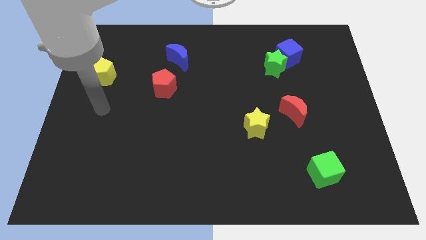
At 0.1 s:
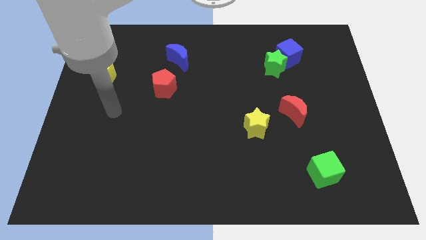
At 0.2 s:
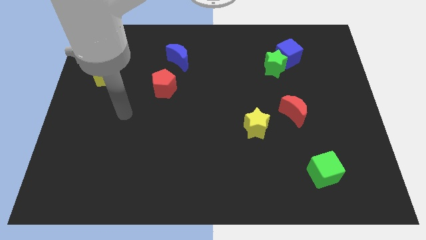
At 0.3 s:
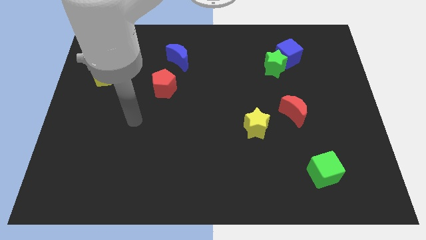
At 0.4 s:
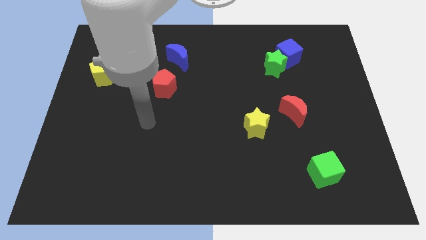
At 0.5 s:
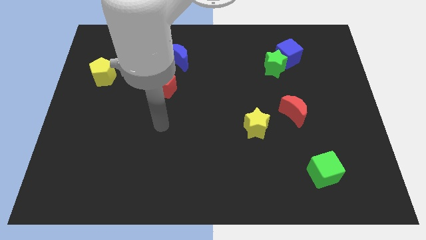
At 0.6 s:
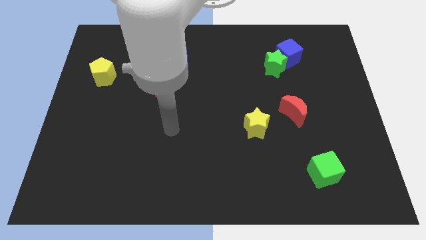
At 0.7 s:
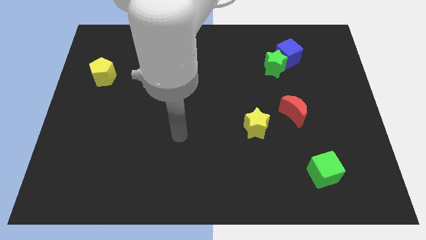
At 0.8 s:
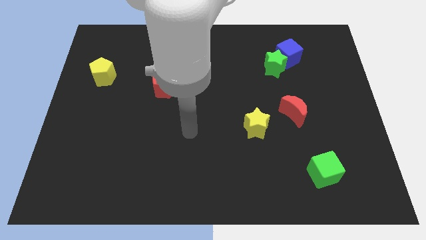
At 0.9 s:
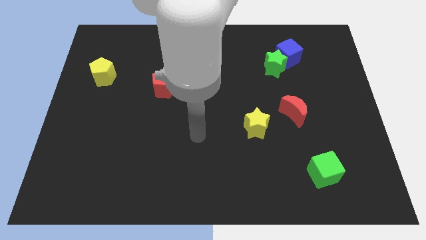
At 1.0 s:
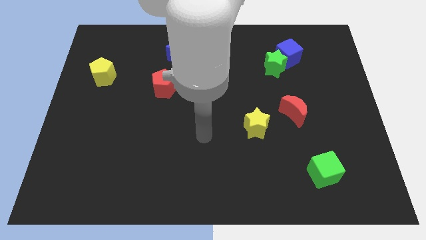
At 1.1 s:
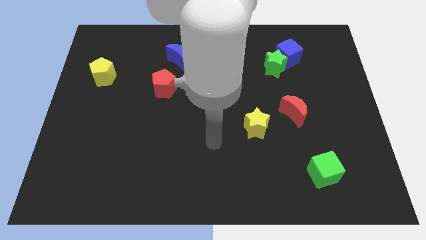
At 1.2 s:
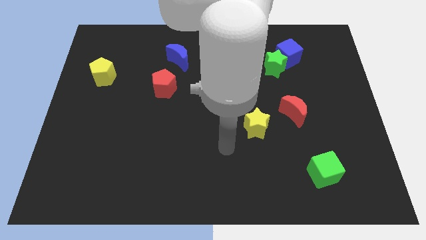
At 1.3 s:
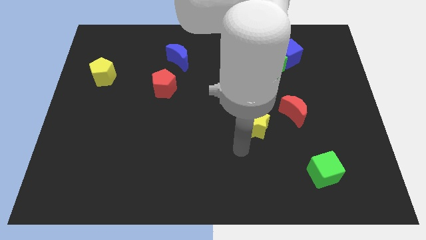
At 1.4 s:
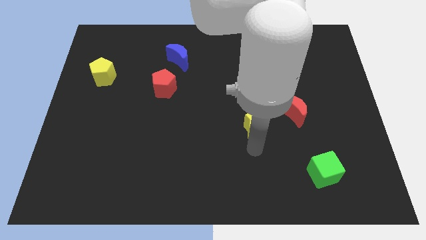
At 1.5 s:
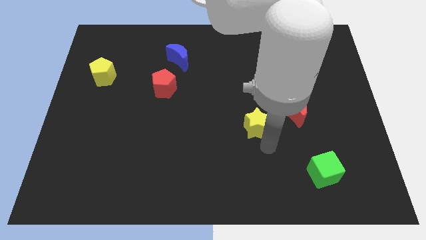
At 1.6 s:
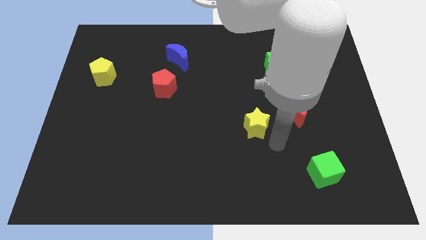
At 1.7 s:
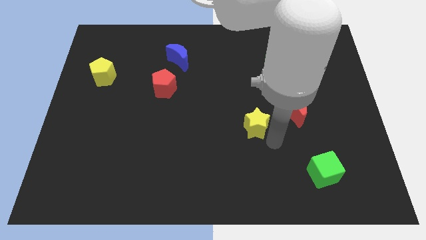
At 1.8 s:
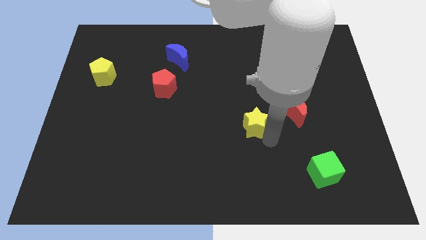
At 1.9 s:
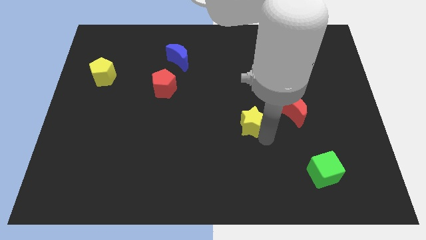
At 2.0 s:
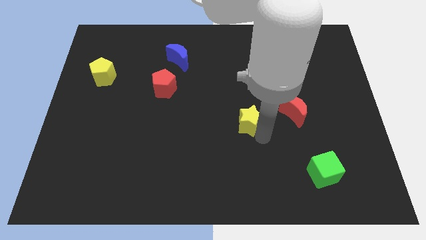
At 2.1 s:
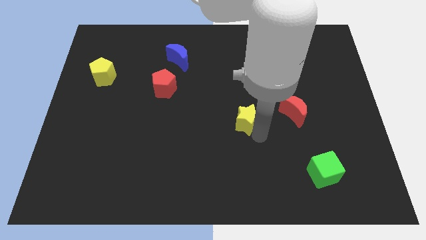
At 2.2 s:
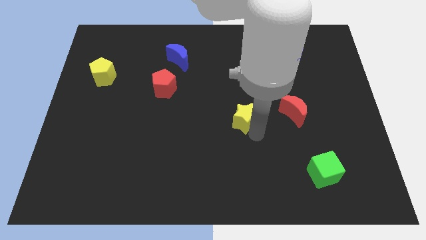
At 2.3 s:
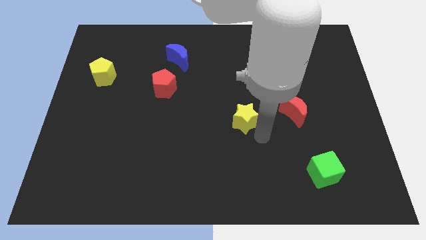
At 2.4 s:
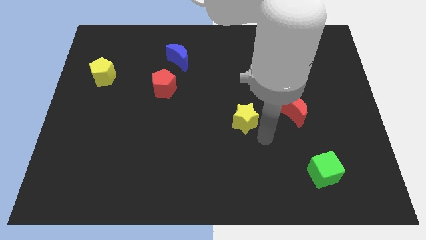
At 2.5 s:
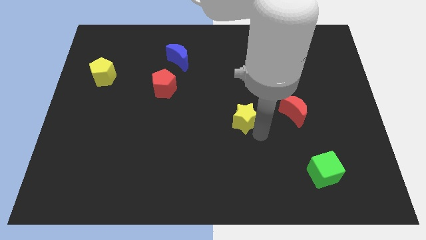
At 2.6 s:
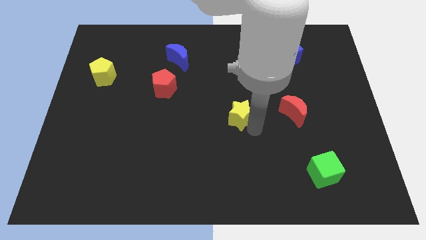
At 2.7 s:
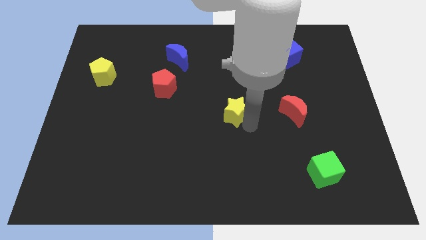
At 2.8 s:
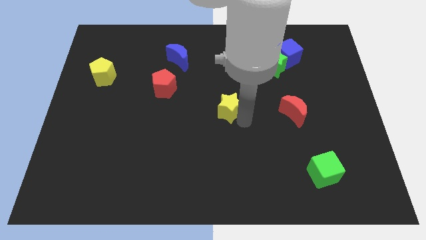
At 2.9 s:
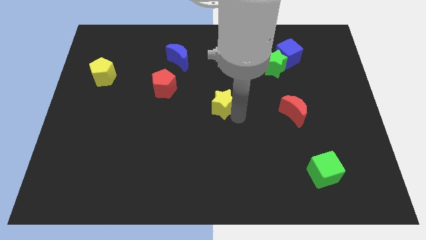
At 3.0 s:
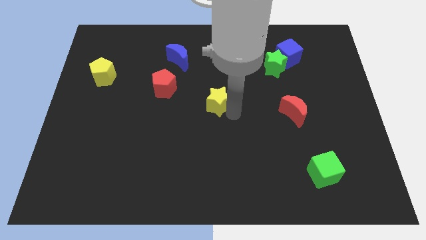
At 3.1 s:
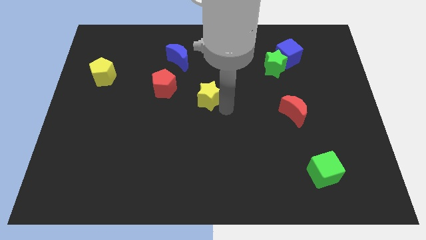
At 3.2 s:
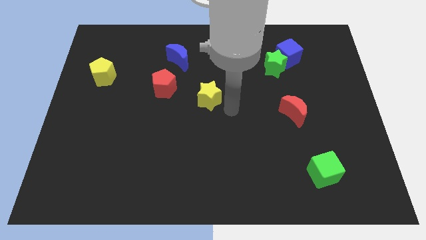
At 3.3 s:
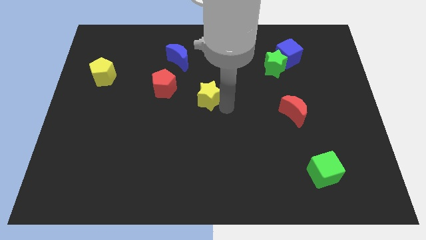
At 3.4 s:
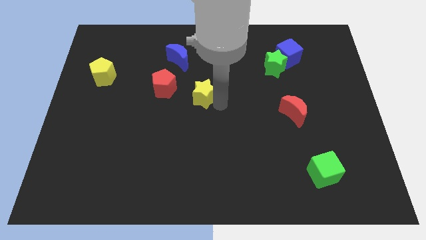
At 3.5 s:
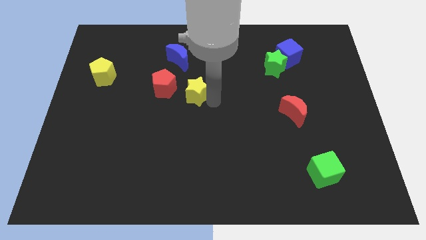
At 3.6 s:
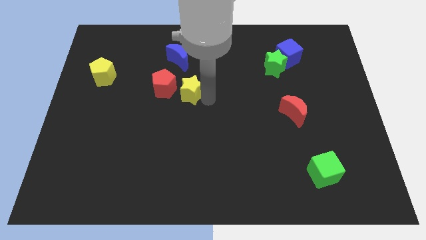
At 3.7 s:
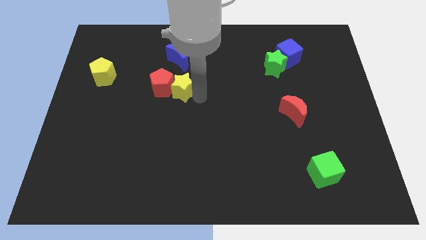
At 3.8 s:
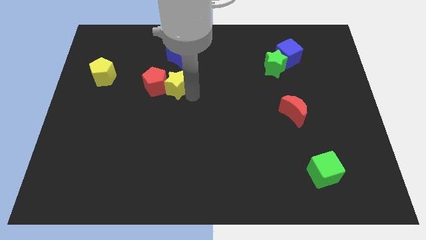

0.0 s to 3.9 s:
slide the yellow star up and to the left diagonally

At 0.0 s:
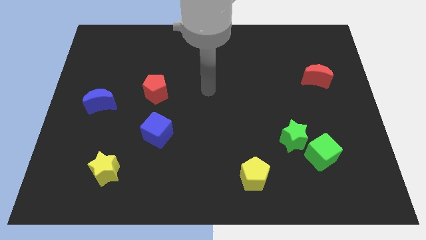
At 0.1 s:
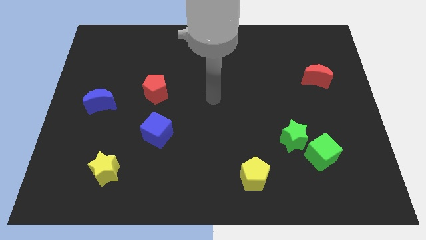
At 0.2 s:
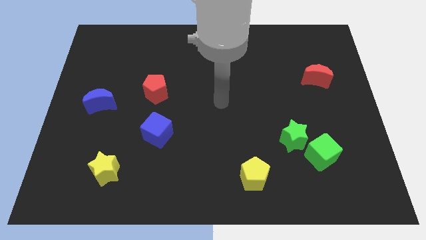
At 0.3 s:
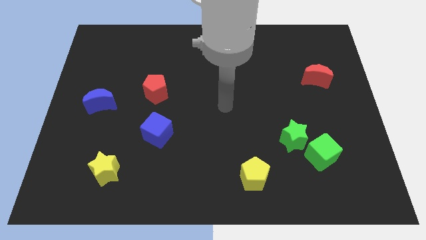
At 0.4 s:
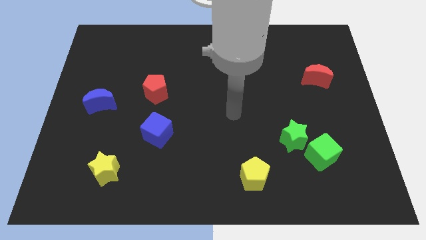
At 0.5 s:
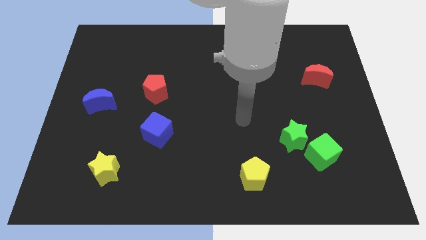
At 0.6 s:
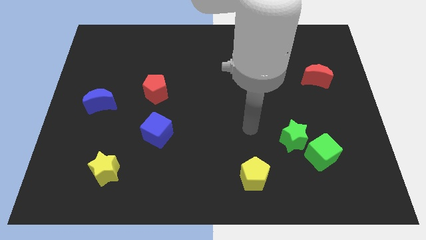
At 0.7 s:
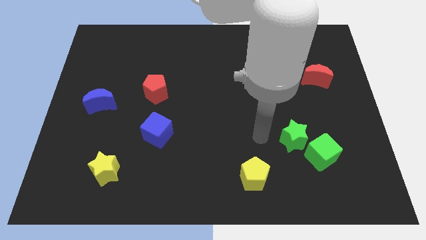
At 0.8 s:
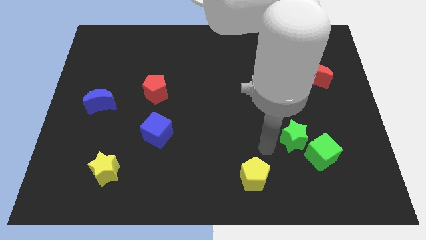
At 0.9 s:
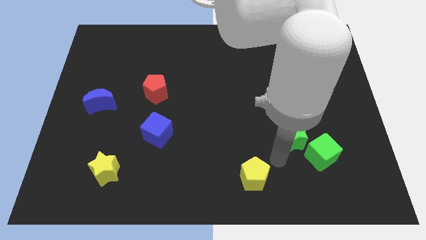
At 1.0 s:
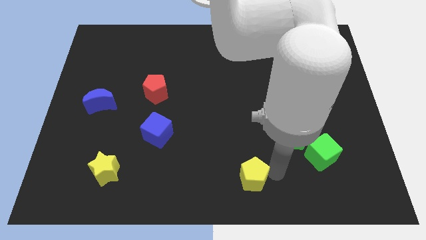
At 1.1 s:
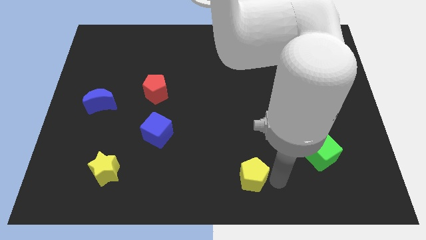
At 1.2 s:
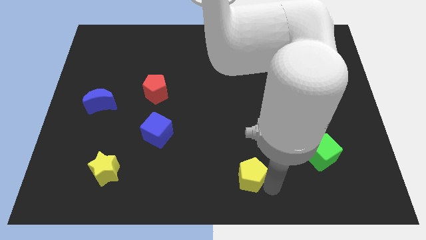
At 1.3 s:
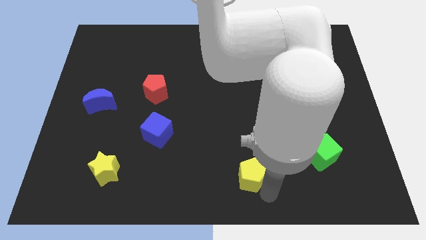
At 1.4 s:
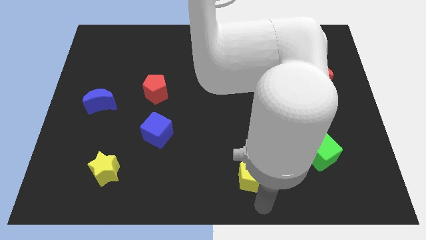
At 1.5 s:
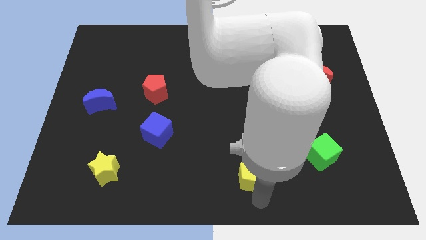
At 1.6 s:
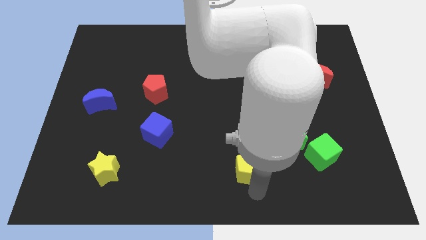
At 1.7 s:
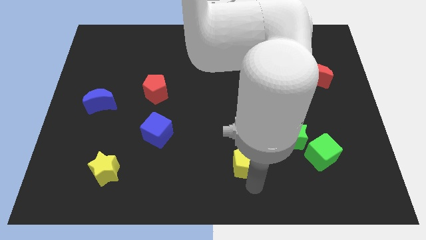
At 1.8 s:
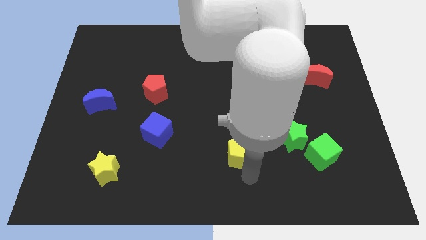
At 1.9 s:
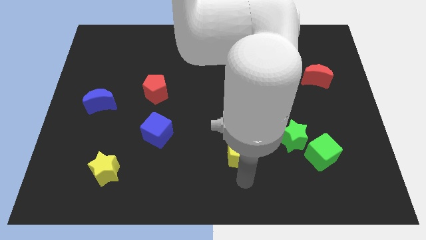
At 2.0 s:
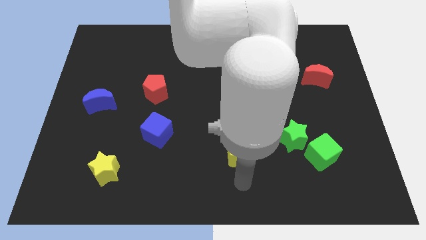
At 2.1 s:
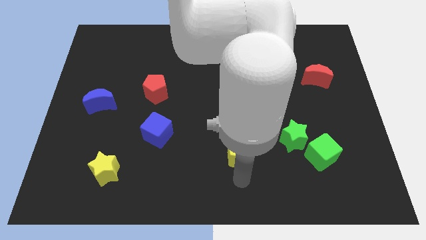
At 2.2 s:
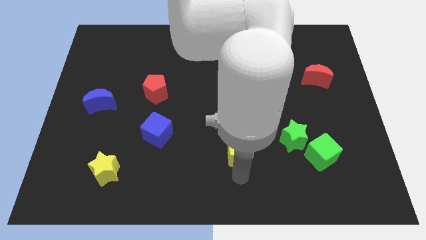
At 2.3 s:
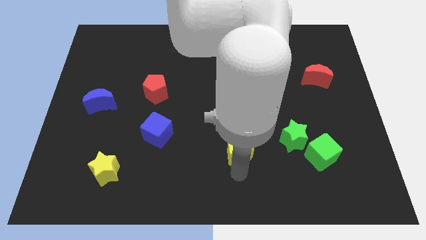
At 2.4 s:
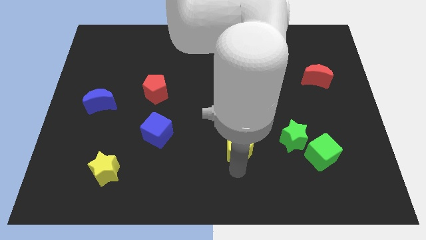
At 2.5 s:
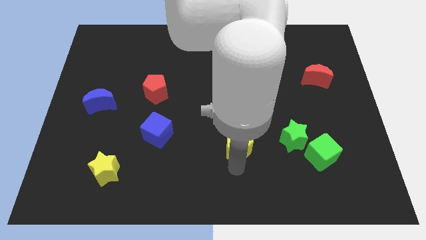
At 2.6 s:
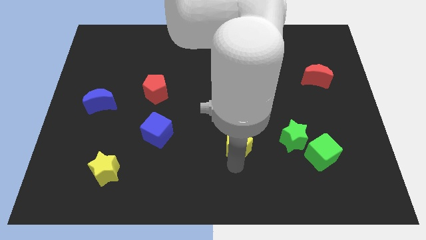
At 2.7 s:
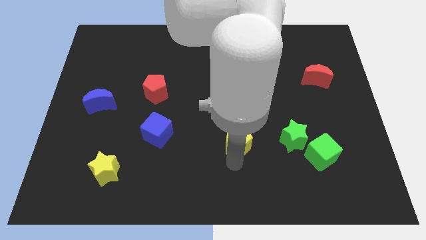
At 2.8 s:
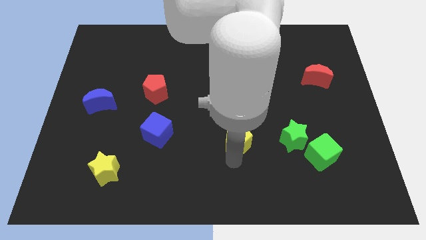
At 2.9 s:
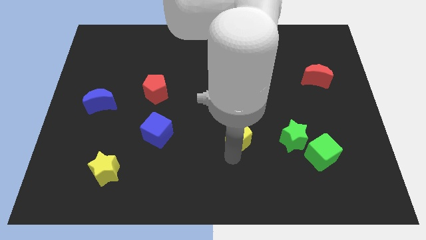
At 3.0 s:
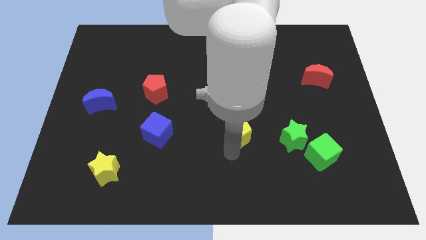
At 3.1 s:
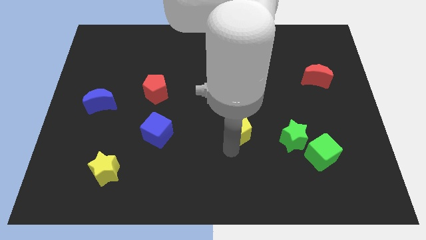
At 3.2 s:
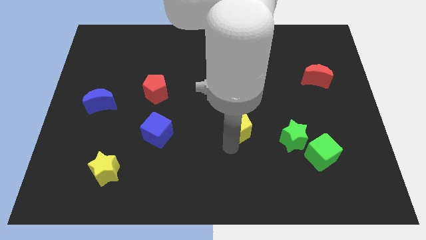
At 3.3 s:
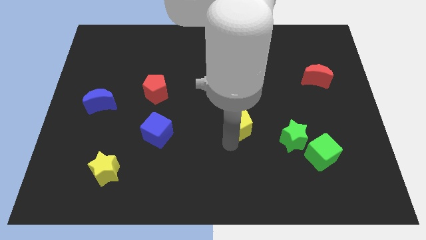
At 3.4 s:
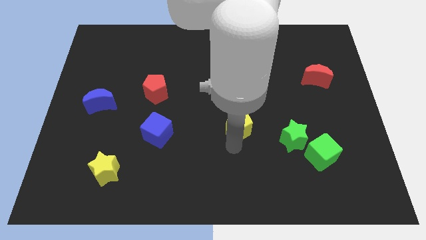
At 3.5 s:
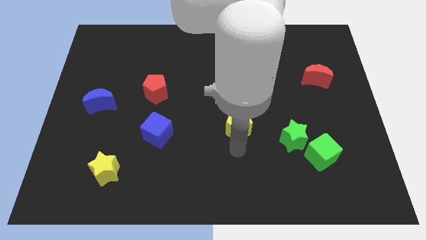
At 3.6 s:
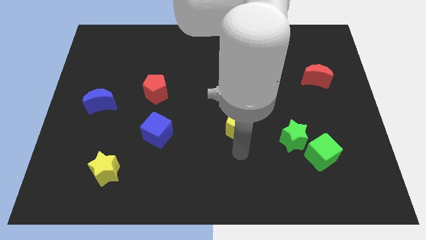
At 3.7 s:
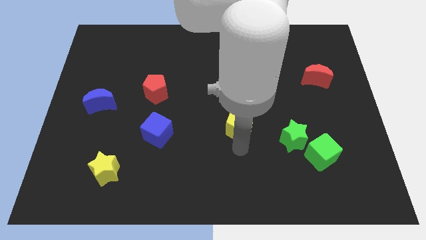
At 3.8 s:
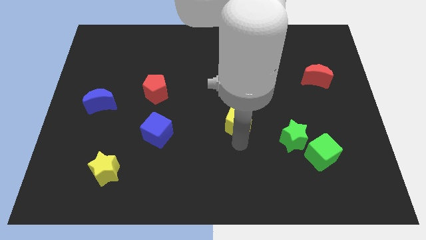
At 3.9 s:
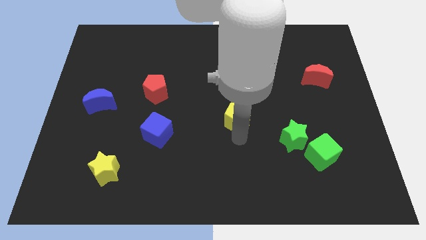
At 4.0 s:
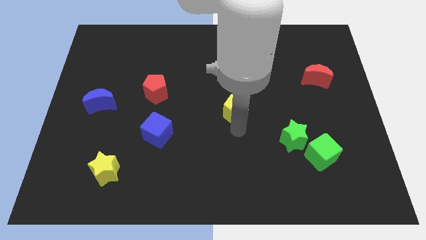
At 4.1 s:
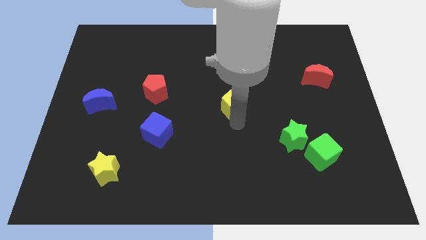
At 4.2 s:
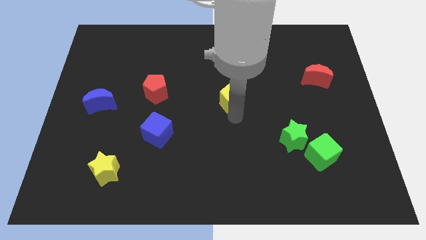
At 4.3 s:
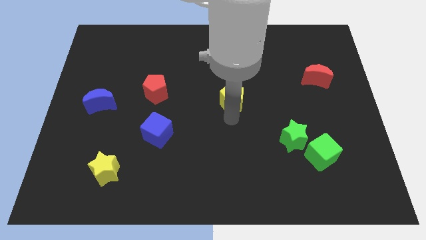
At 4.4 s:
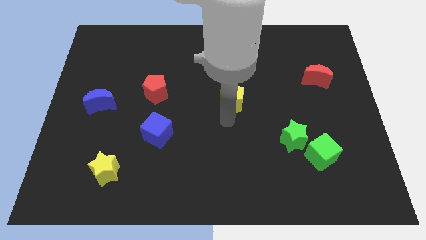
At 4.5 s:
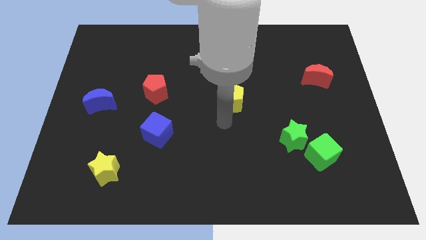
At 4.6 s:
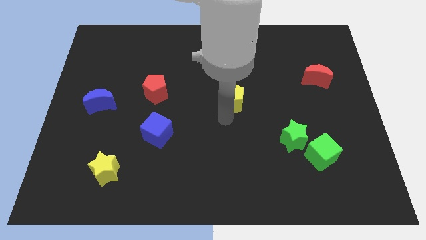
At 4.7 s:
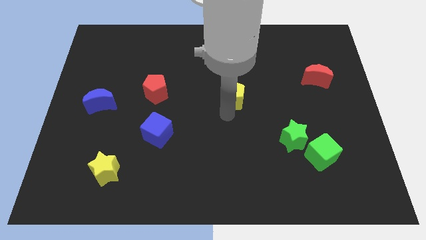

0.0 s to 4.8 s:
slide the yellow pentagon upwards
